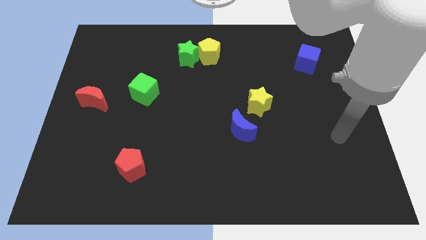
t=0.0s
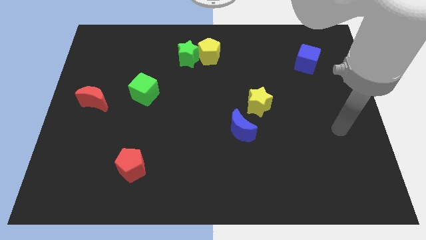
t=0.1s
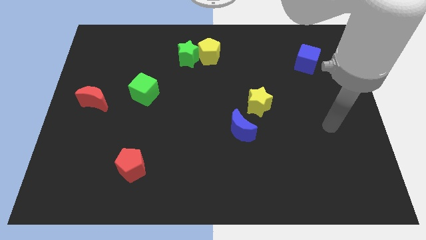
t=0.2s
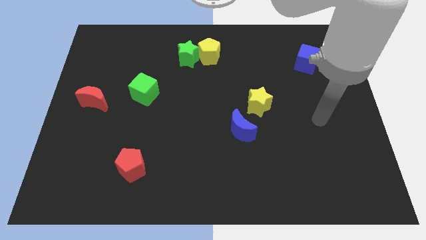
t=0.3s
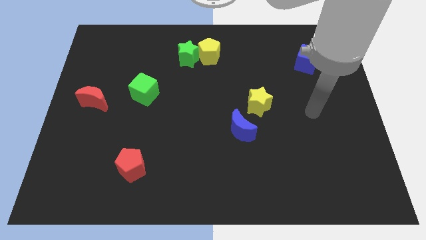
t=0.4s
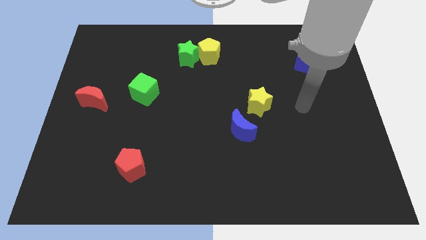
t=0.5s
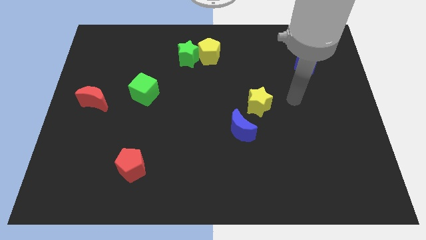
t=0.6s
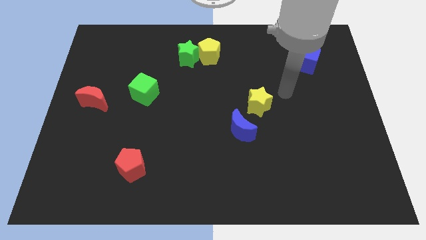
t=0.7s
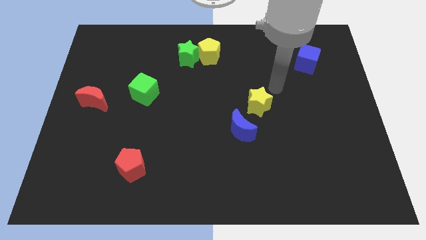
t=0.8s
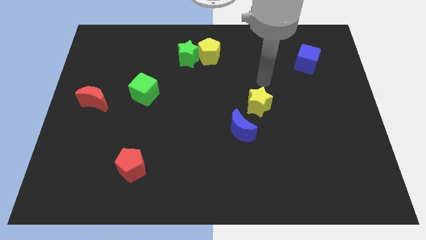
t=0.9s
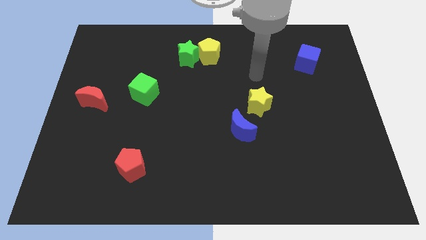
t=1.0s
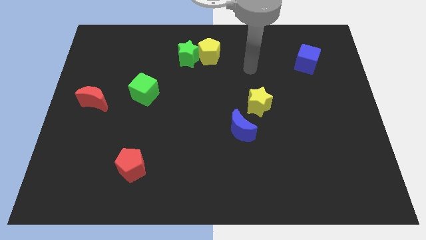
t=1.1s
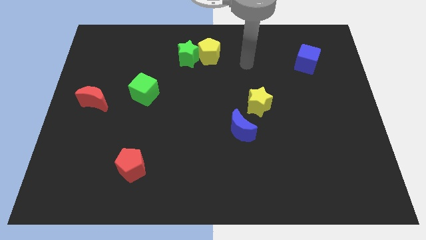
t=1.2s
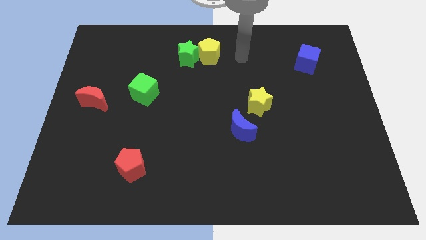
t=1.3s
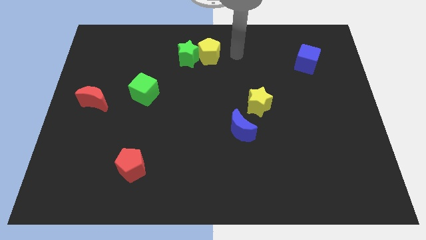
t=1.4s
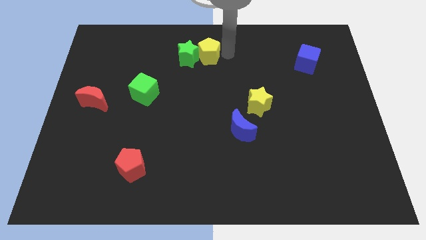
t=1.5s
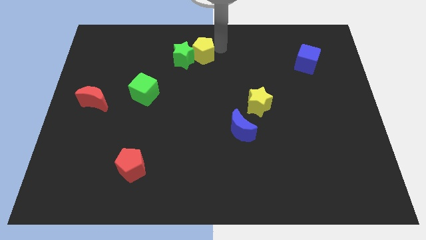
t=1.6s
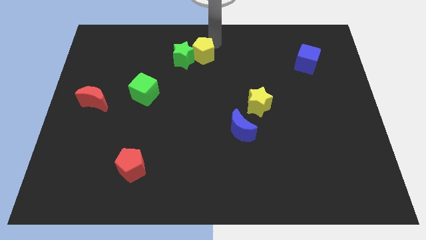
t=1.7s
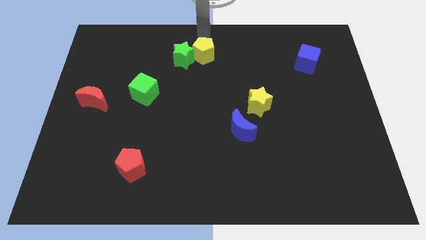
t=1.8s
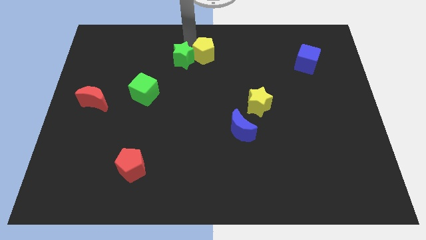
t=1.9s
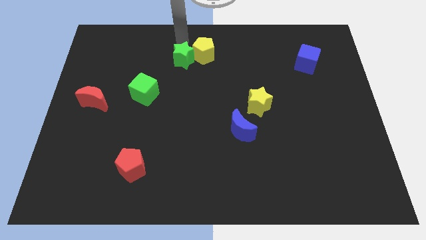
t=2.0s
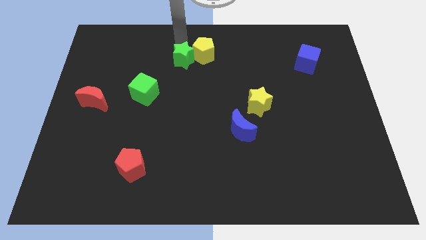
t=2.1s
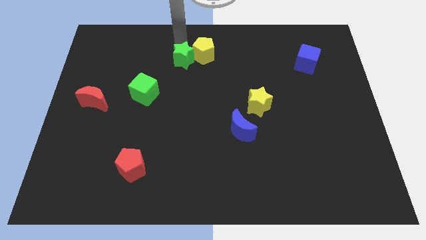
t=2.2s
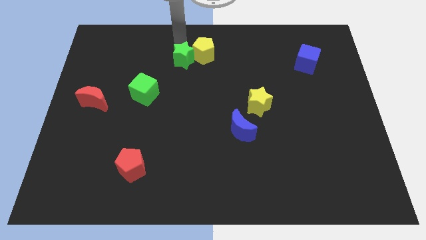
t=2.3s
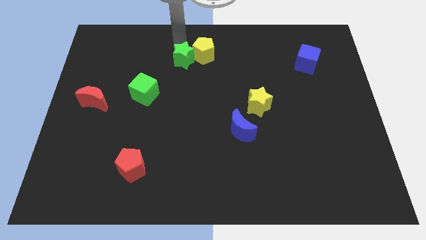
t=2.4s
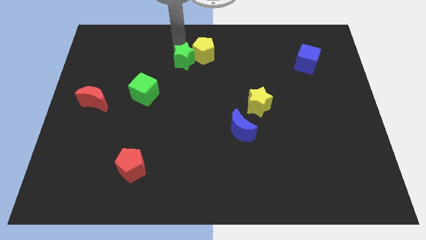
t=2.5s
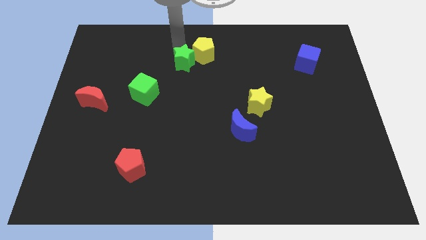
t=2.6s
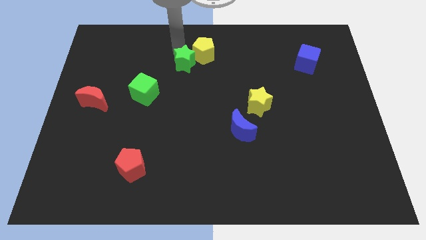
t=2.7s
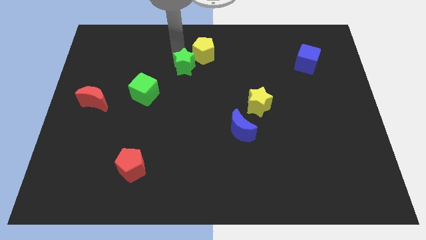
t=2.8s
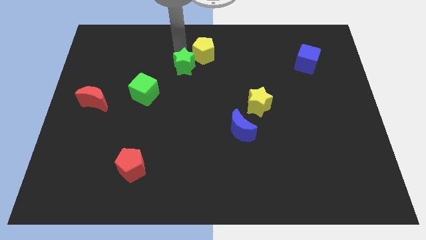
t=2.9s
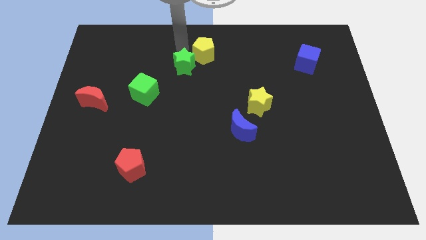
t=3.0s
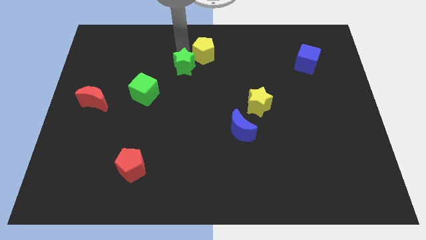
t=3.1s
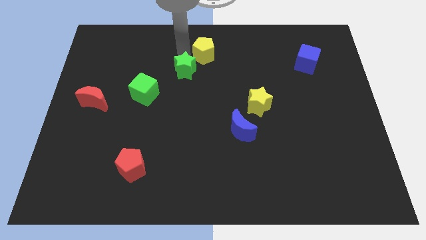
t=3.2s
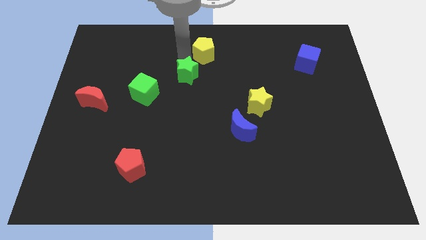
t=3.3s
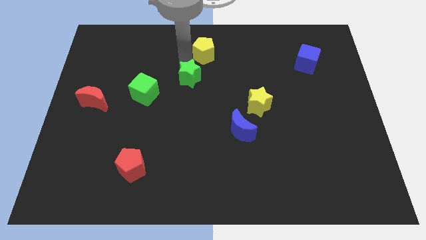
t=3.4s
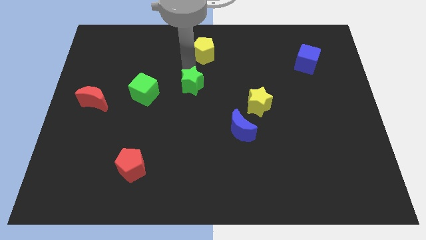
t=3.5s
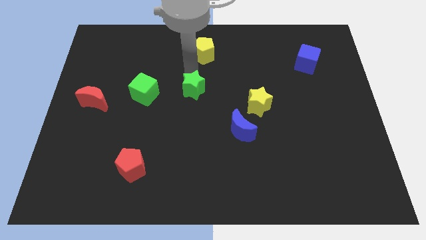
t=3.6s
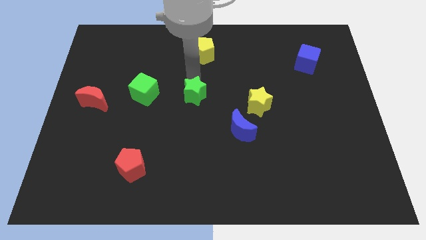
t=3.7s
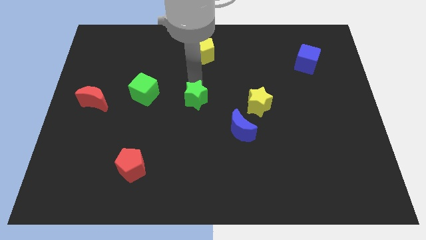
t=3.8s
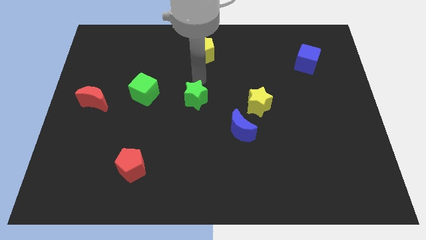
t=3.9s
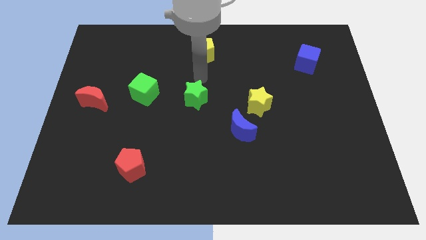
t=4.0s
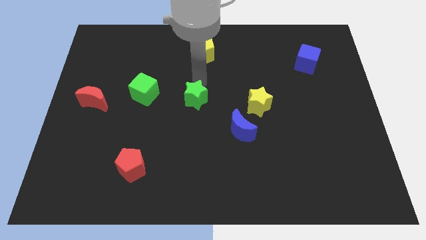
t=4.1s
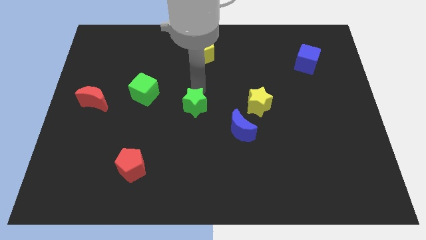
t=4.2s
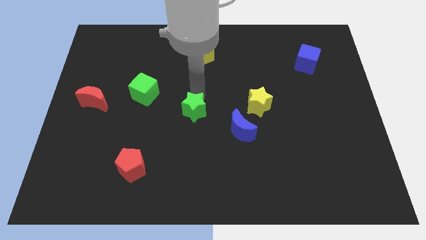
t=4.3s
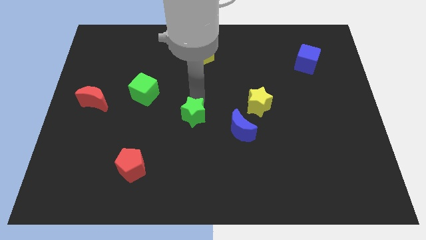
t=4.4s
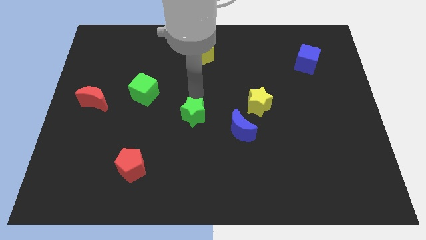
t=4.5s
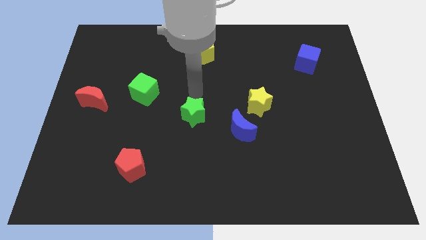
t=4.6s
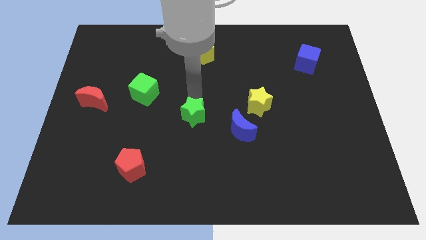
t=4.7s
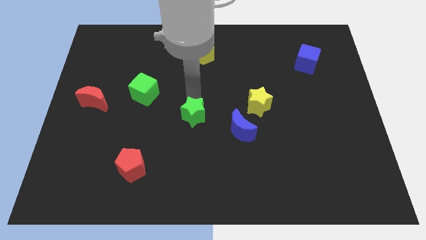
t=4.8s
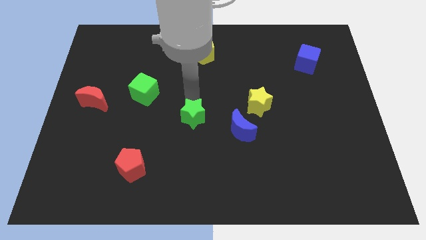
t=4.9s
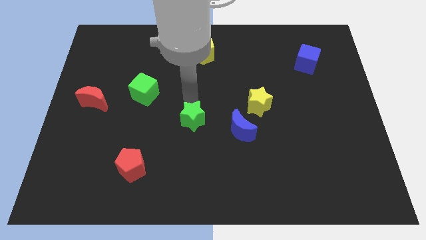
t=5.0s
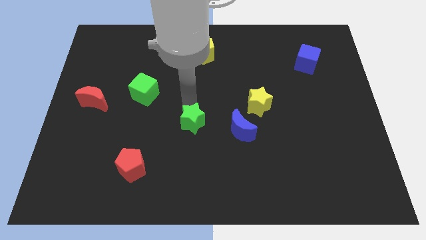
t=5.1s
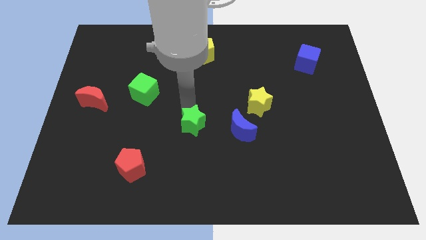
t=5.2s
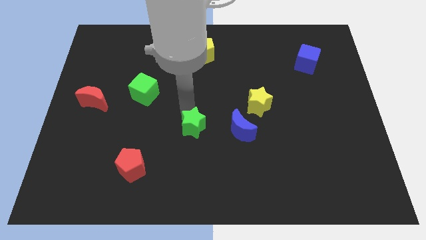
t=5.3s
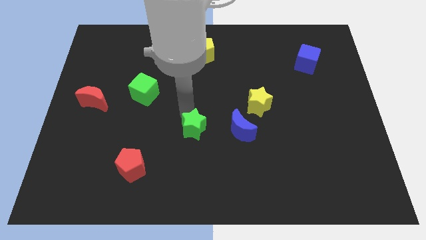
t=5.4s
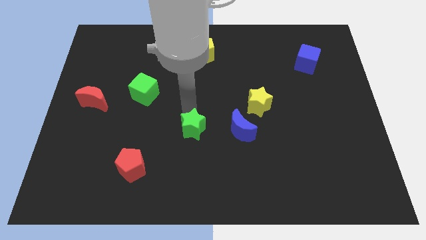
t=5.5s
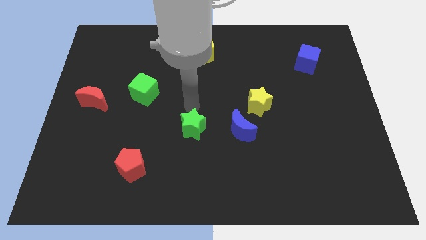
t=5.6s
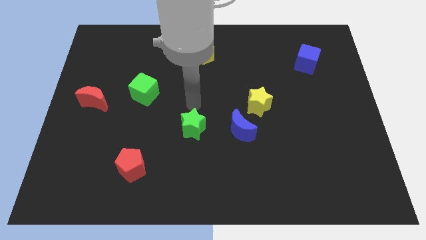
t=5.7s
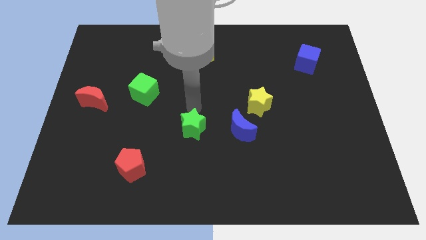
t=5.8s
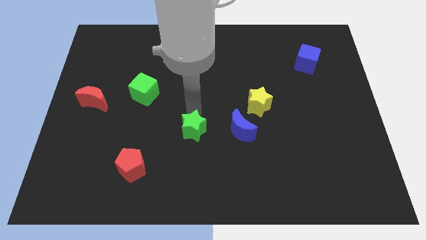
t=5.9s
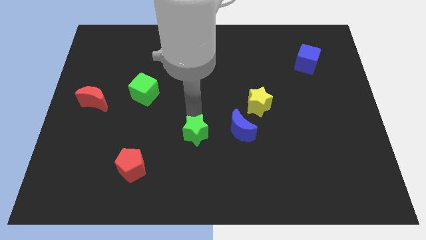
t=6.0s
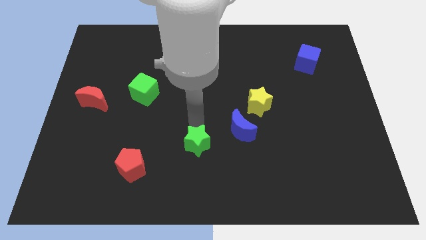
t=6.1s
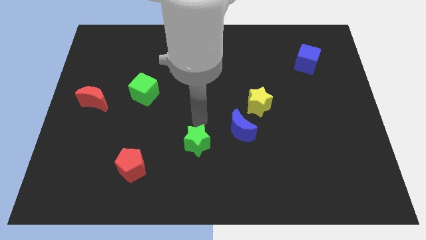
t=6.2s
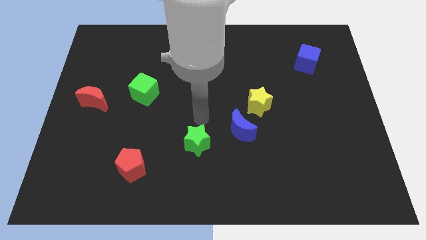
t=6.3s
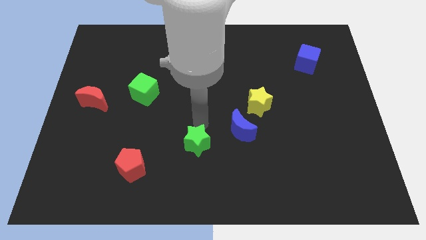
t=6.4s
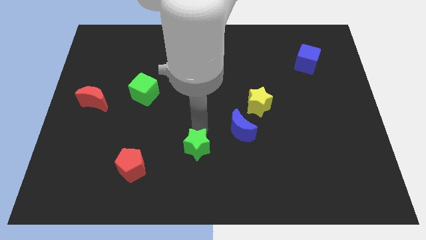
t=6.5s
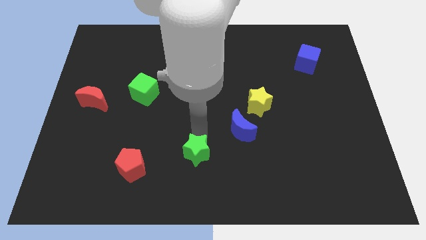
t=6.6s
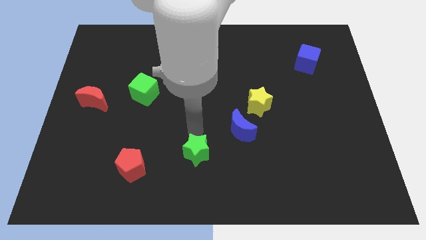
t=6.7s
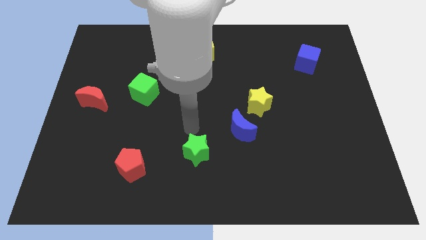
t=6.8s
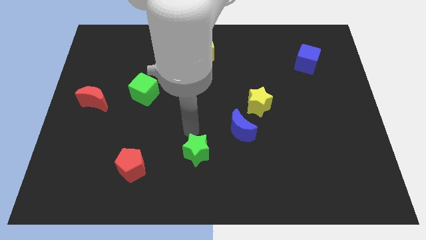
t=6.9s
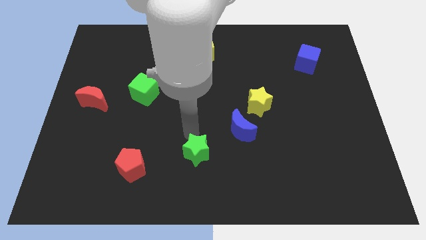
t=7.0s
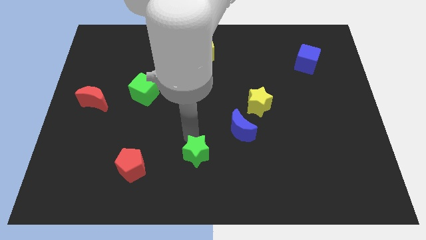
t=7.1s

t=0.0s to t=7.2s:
slide the green star to the bottom side
